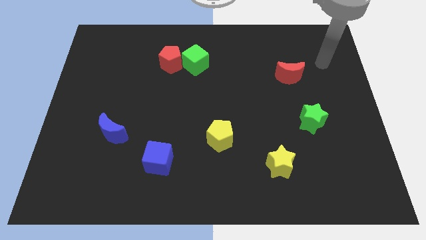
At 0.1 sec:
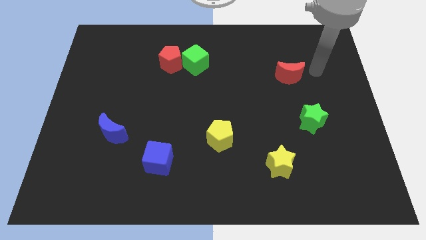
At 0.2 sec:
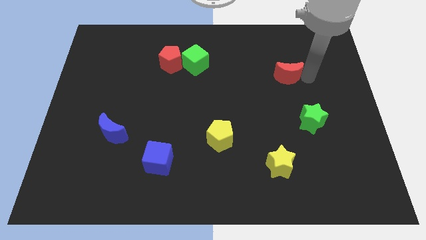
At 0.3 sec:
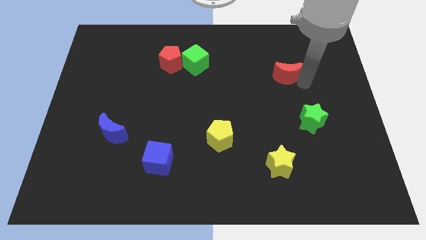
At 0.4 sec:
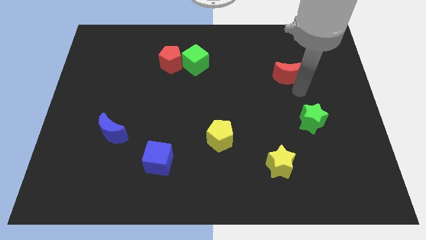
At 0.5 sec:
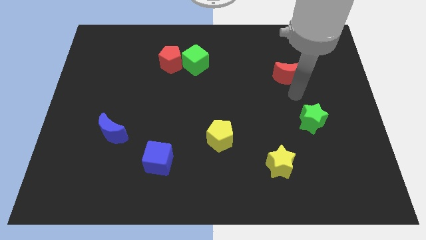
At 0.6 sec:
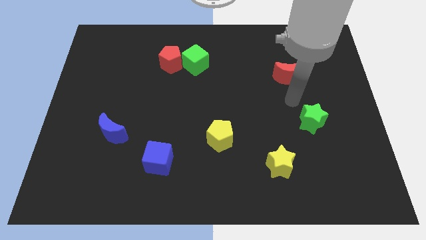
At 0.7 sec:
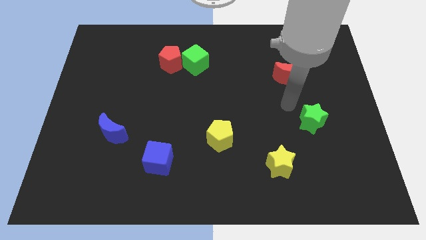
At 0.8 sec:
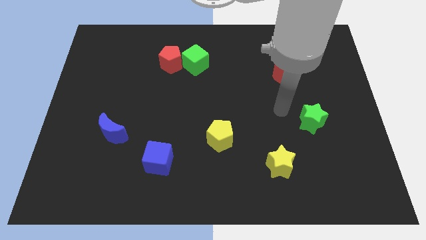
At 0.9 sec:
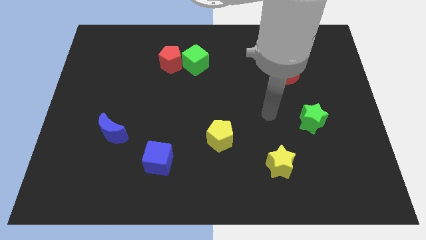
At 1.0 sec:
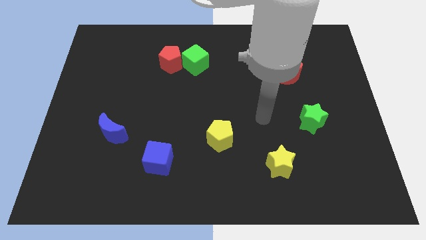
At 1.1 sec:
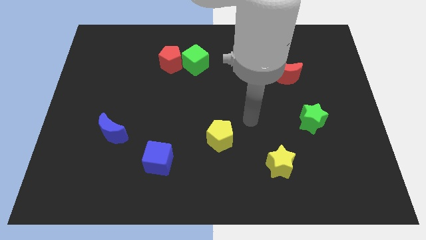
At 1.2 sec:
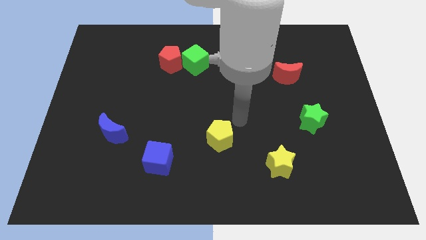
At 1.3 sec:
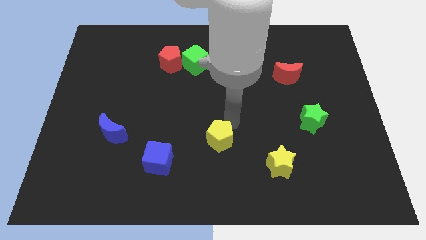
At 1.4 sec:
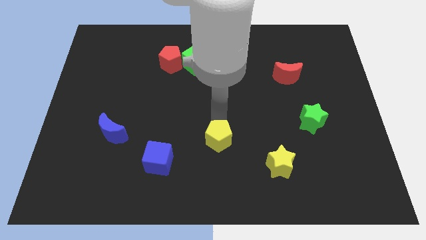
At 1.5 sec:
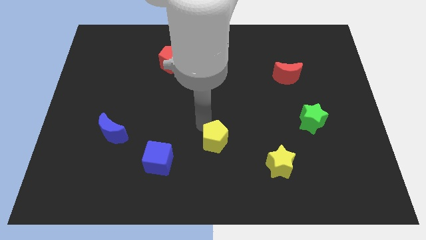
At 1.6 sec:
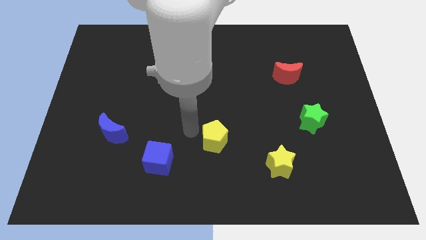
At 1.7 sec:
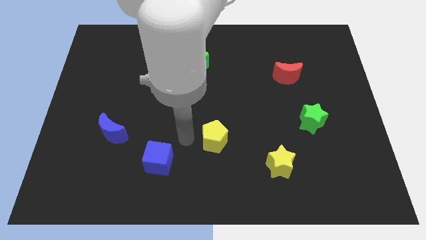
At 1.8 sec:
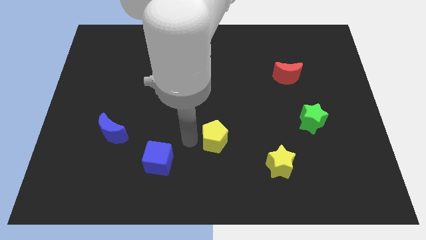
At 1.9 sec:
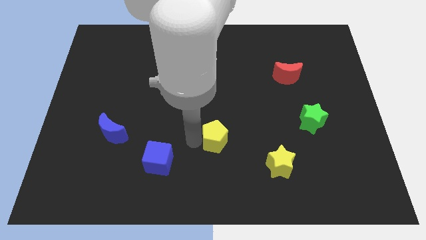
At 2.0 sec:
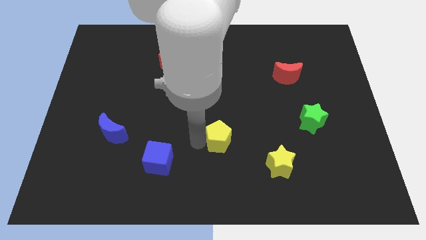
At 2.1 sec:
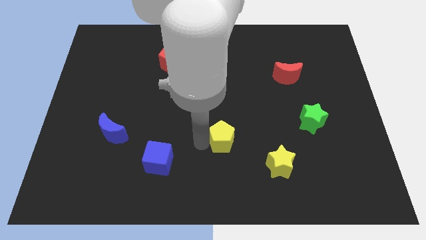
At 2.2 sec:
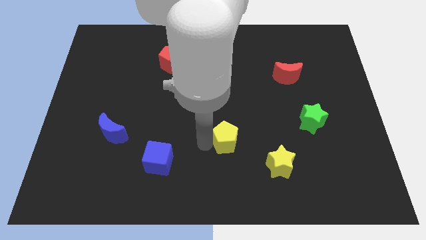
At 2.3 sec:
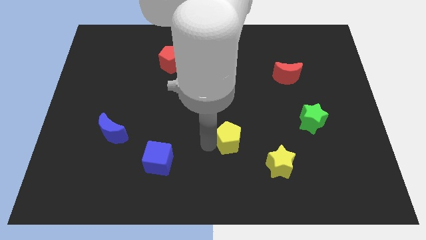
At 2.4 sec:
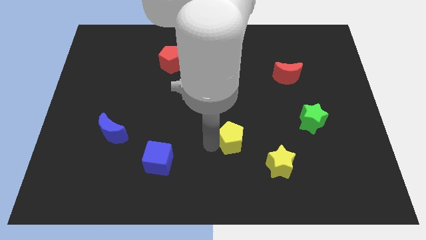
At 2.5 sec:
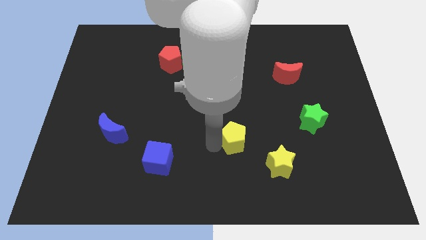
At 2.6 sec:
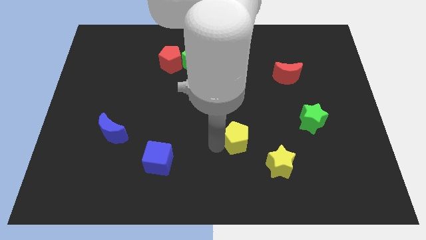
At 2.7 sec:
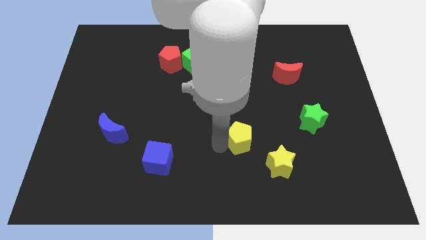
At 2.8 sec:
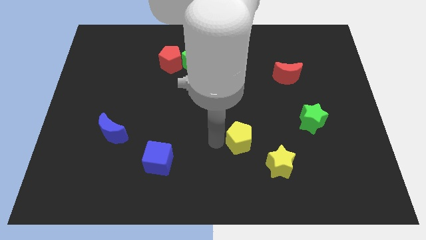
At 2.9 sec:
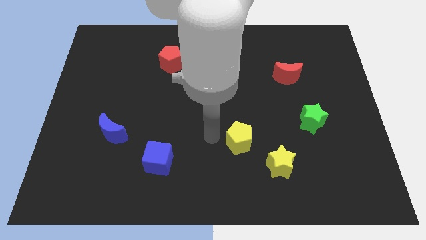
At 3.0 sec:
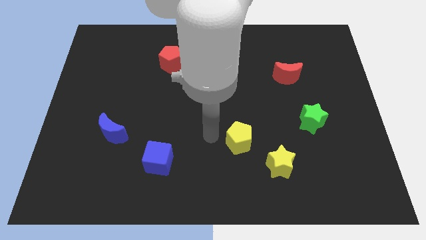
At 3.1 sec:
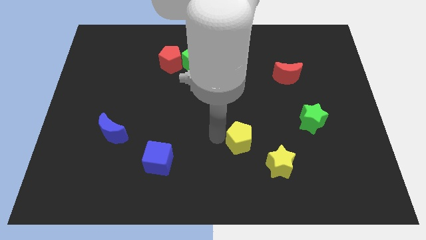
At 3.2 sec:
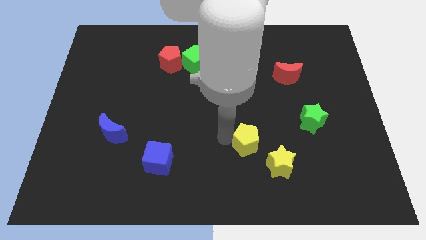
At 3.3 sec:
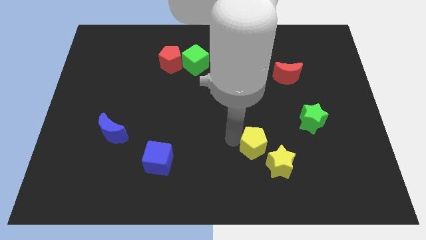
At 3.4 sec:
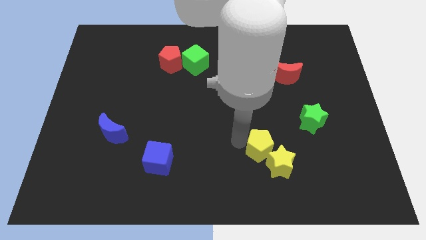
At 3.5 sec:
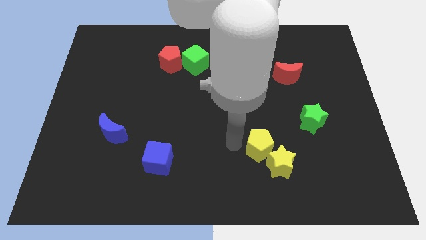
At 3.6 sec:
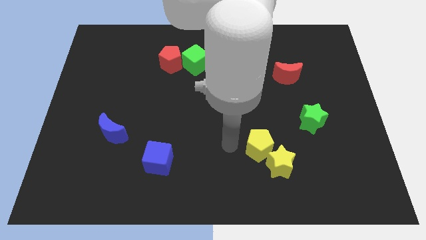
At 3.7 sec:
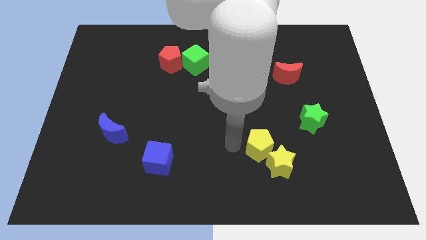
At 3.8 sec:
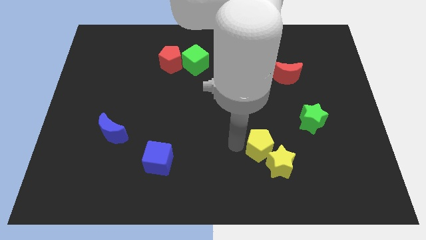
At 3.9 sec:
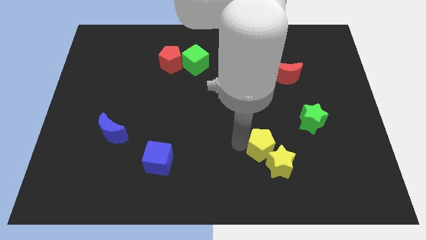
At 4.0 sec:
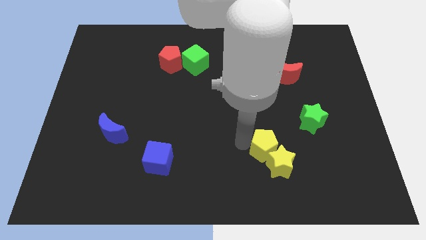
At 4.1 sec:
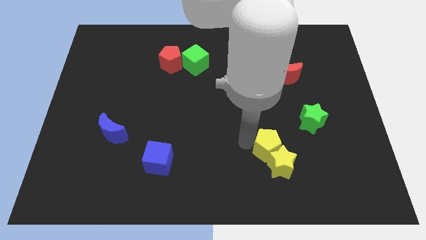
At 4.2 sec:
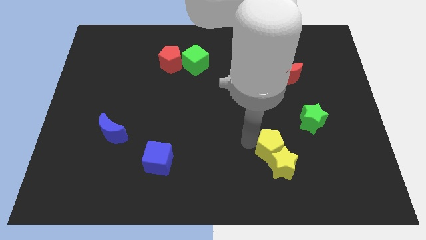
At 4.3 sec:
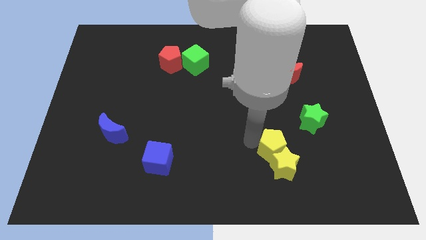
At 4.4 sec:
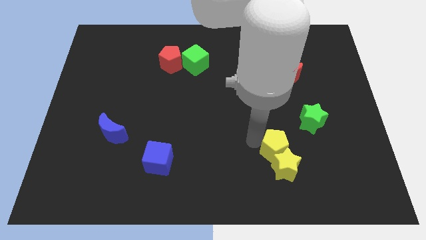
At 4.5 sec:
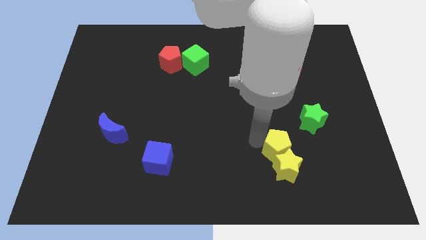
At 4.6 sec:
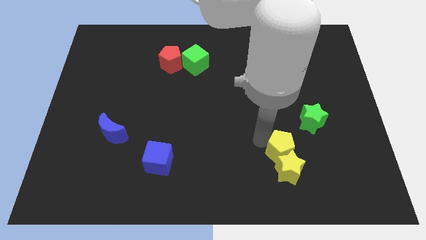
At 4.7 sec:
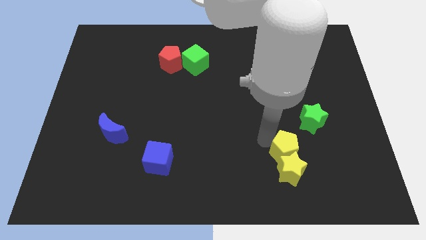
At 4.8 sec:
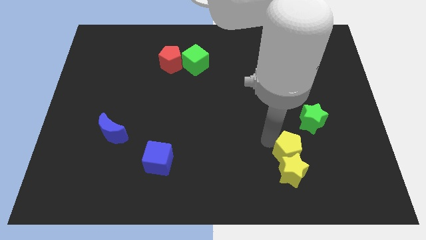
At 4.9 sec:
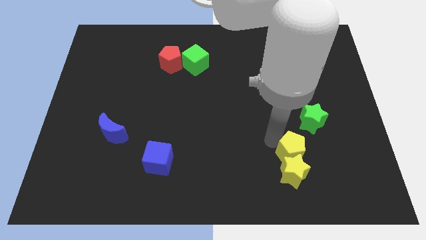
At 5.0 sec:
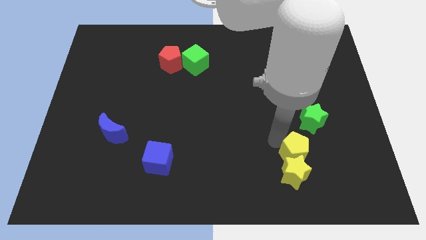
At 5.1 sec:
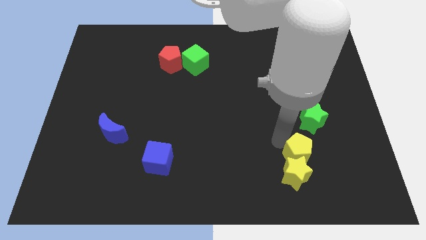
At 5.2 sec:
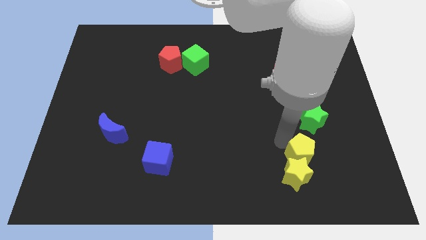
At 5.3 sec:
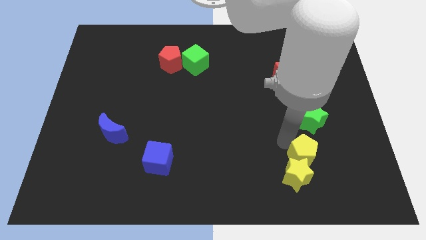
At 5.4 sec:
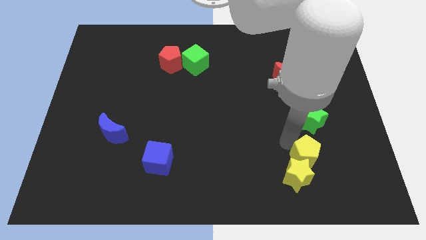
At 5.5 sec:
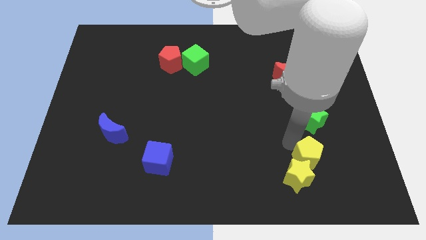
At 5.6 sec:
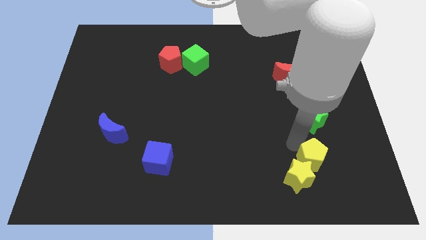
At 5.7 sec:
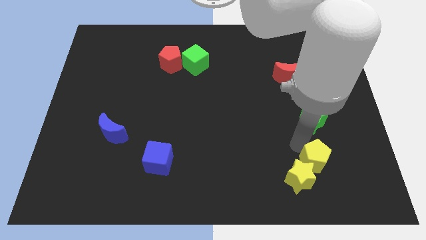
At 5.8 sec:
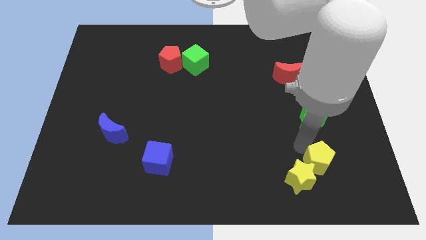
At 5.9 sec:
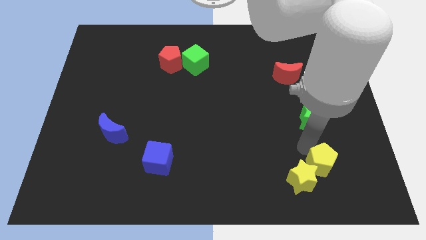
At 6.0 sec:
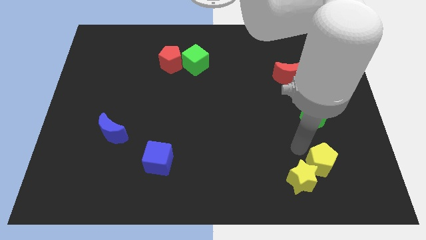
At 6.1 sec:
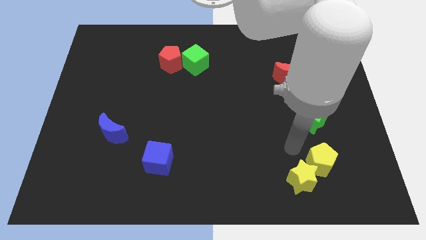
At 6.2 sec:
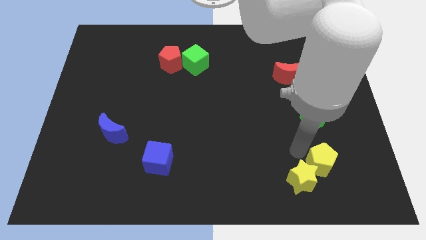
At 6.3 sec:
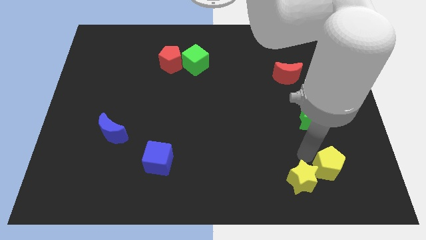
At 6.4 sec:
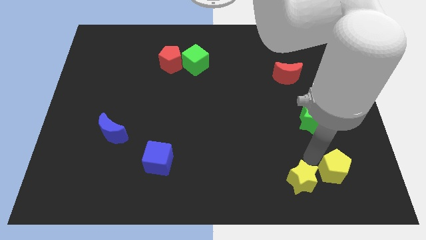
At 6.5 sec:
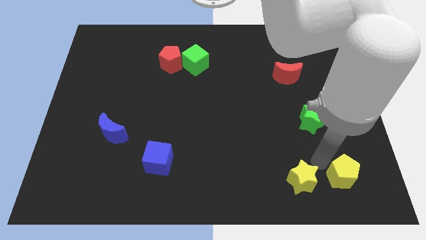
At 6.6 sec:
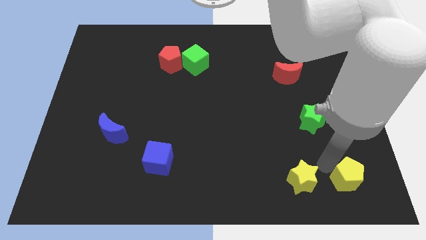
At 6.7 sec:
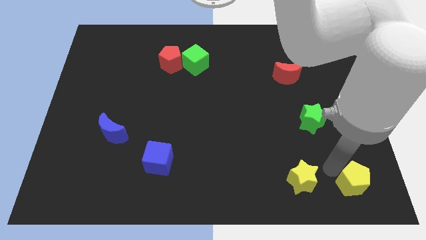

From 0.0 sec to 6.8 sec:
slide the yellow pentagon to the bottom right of the board
